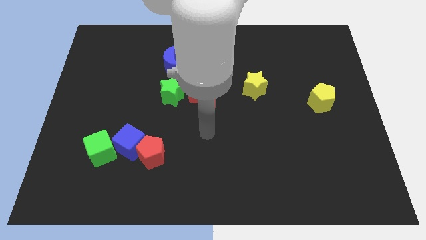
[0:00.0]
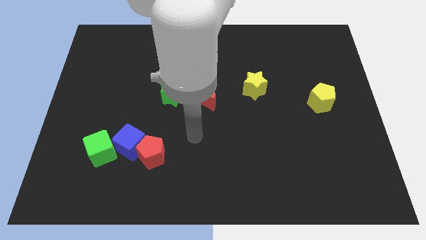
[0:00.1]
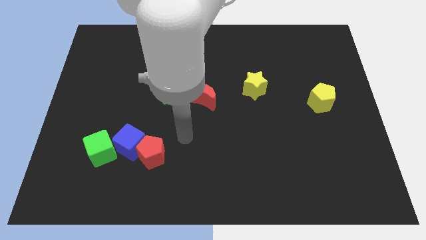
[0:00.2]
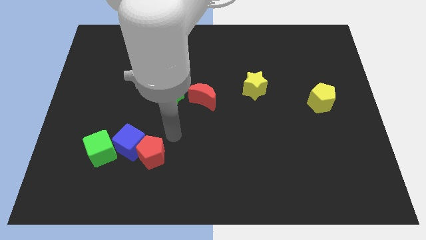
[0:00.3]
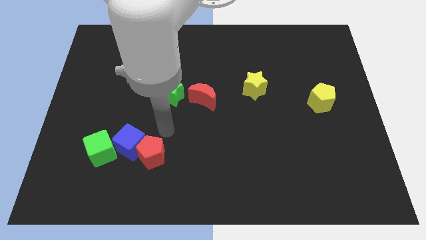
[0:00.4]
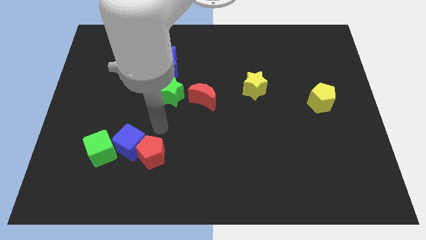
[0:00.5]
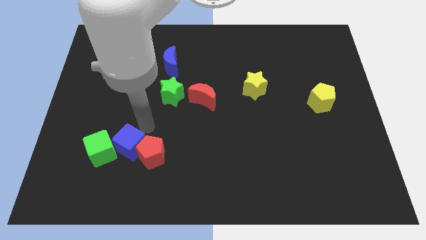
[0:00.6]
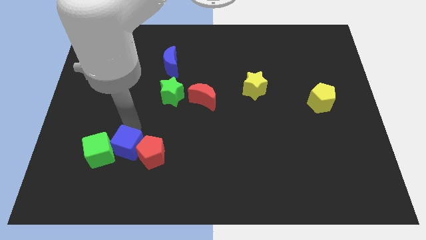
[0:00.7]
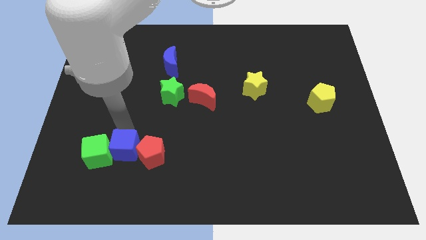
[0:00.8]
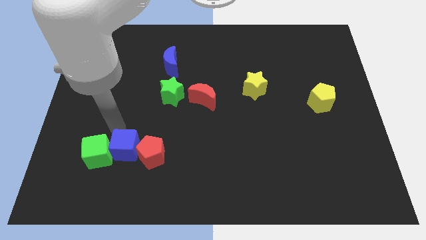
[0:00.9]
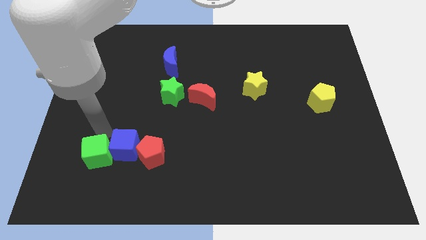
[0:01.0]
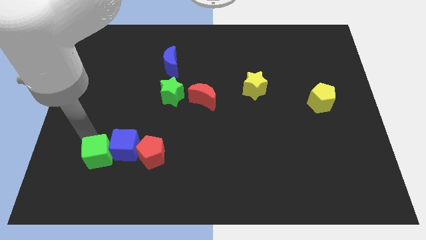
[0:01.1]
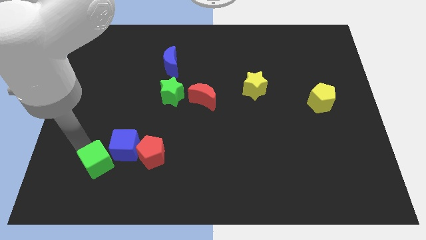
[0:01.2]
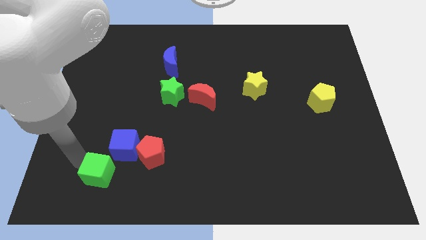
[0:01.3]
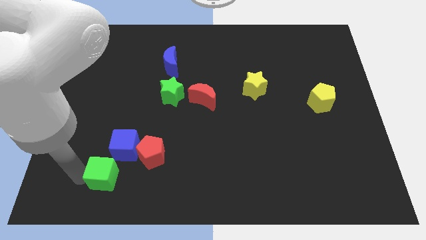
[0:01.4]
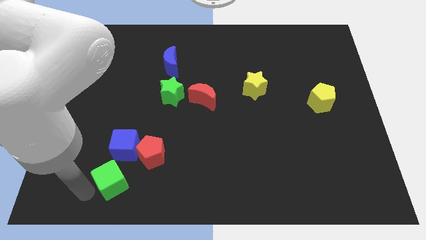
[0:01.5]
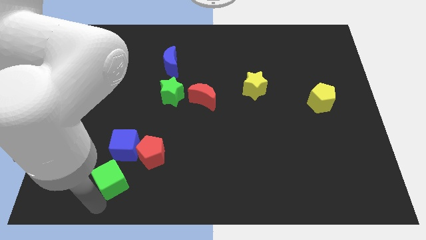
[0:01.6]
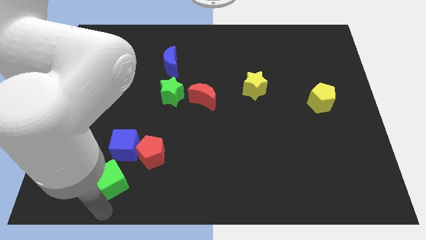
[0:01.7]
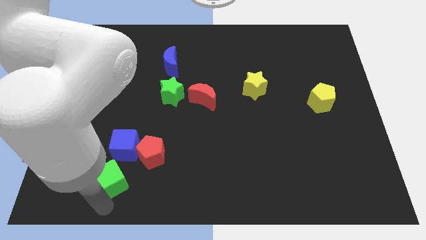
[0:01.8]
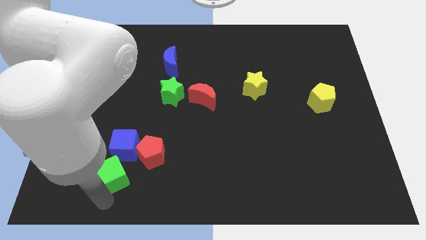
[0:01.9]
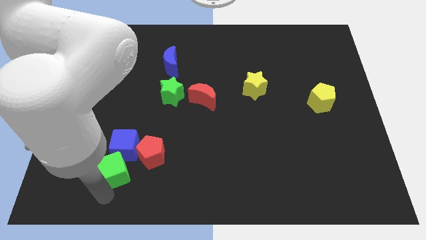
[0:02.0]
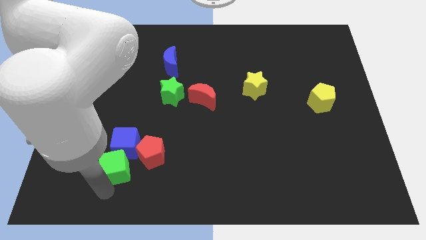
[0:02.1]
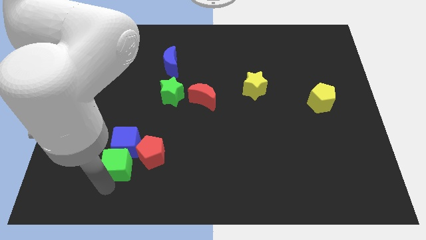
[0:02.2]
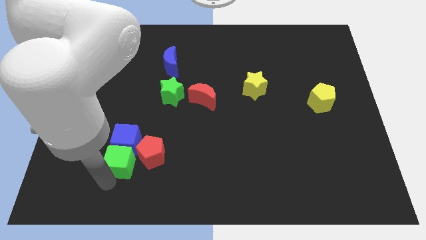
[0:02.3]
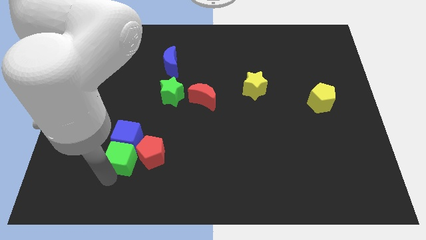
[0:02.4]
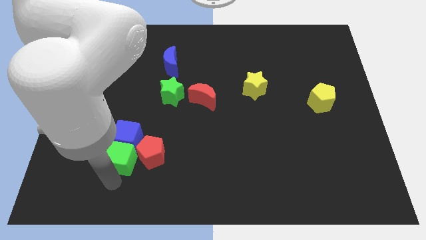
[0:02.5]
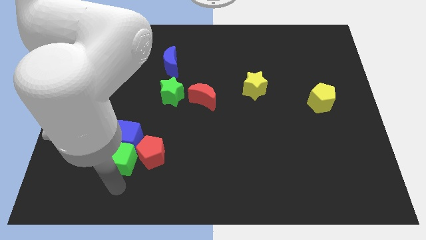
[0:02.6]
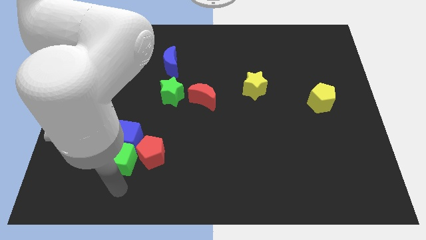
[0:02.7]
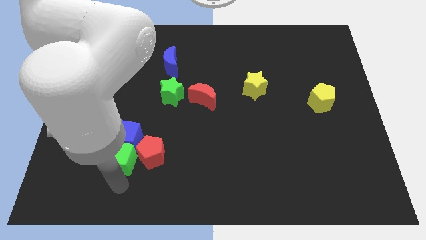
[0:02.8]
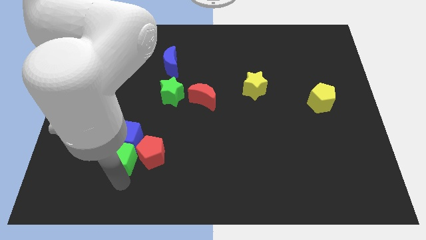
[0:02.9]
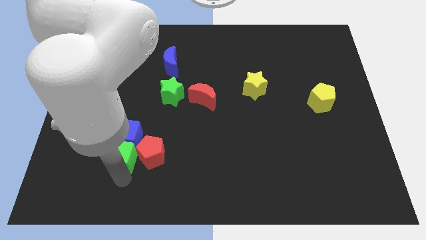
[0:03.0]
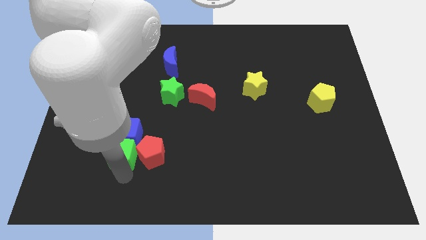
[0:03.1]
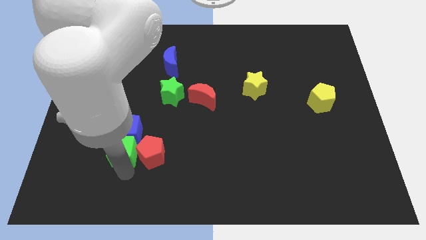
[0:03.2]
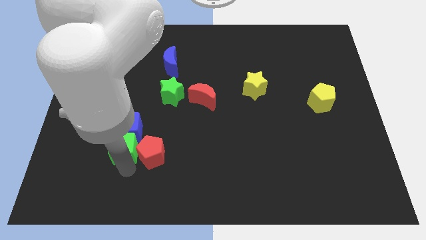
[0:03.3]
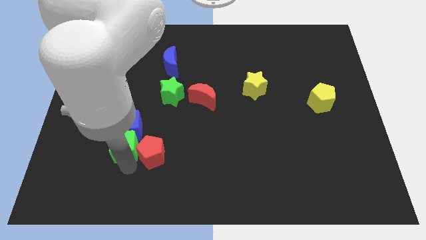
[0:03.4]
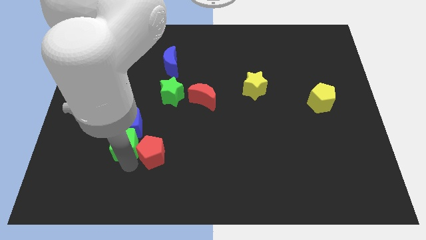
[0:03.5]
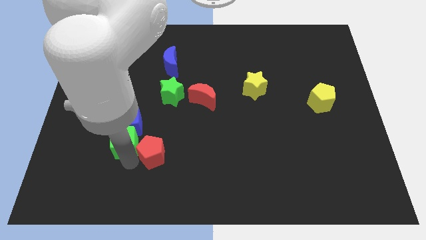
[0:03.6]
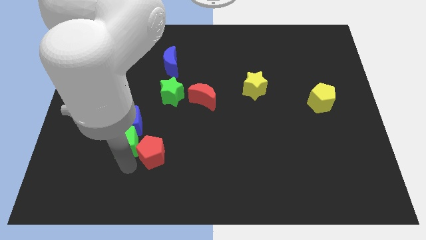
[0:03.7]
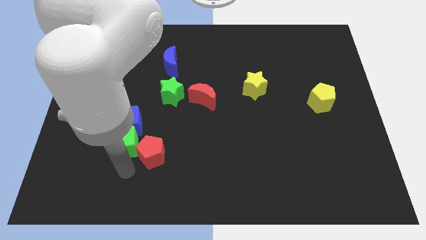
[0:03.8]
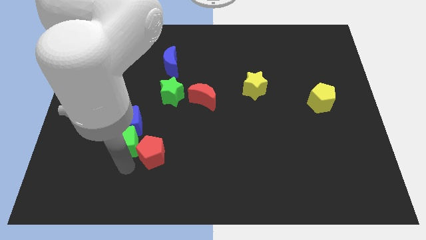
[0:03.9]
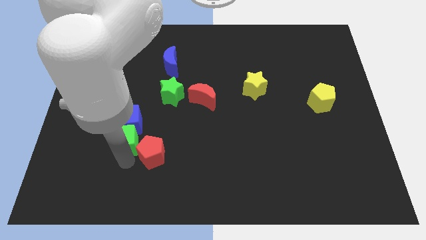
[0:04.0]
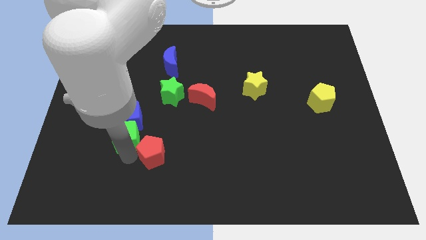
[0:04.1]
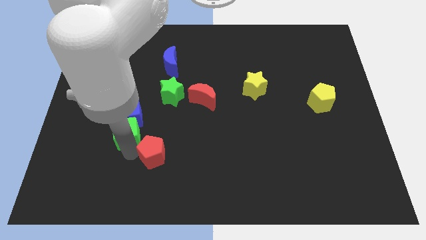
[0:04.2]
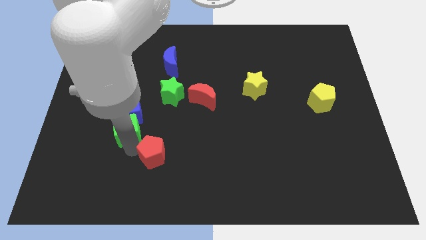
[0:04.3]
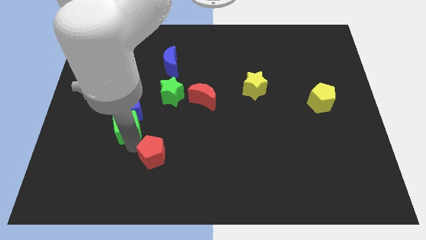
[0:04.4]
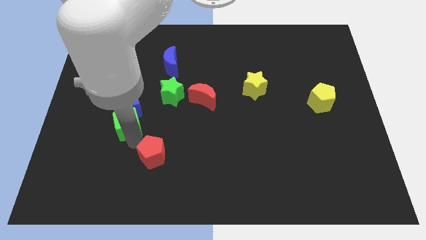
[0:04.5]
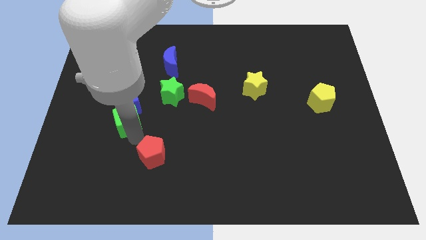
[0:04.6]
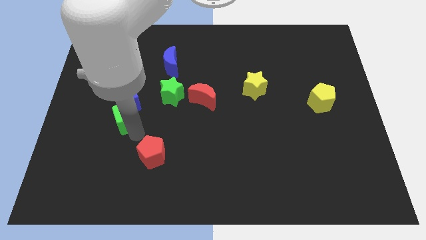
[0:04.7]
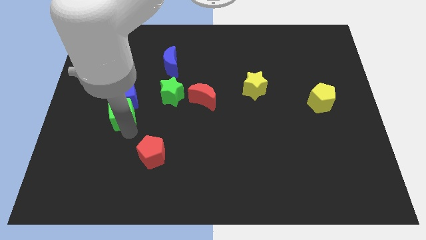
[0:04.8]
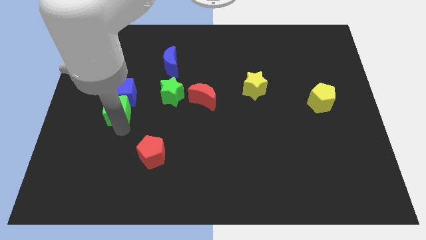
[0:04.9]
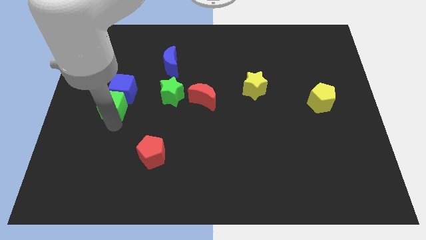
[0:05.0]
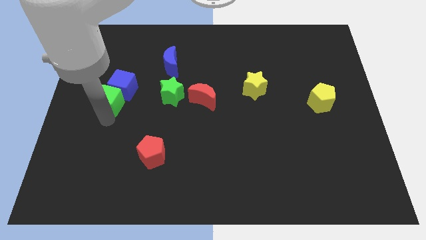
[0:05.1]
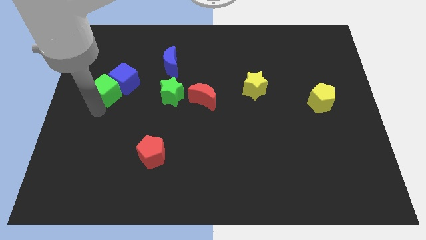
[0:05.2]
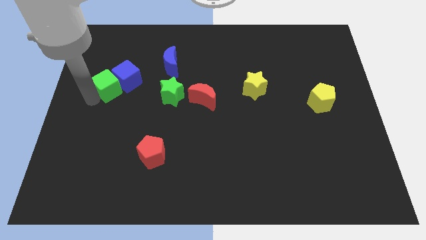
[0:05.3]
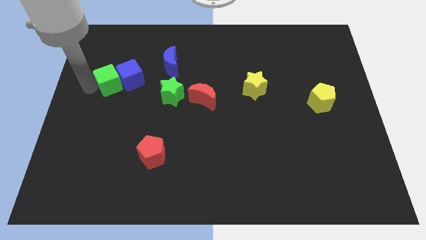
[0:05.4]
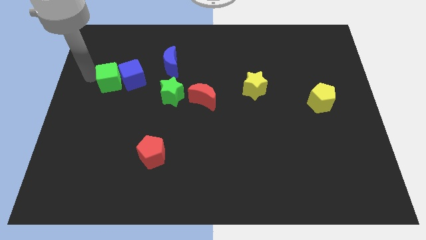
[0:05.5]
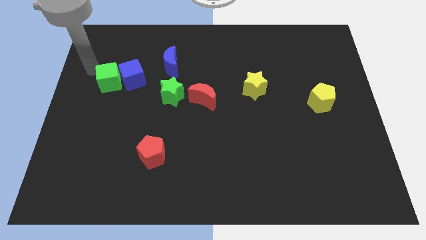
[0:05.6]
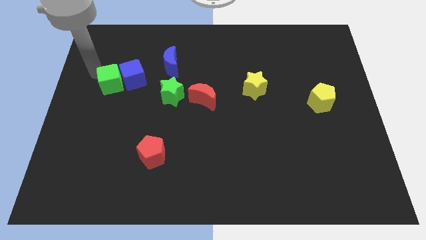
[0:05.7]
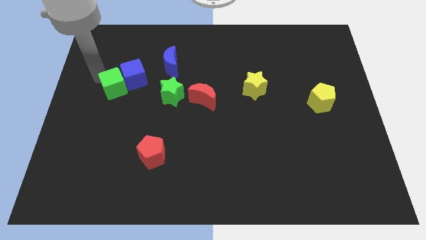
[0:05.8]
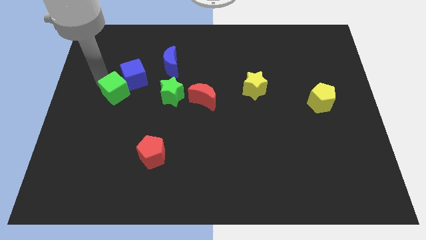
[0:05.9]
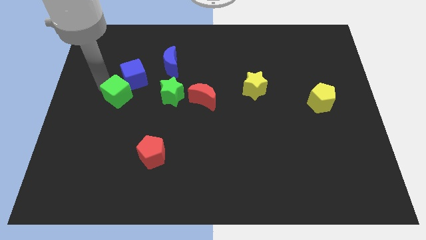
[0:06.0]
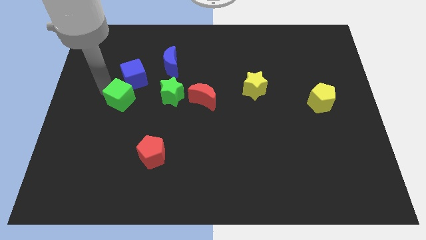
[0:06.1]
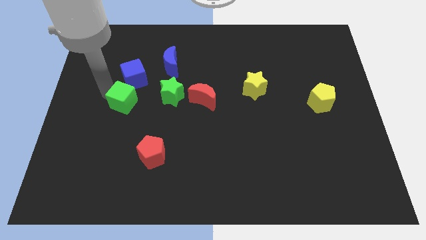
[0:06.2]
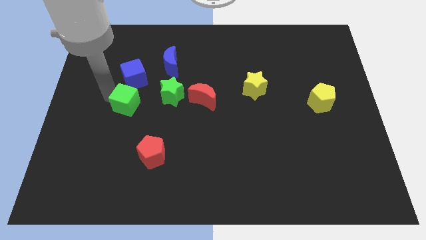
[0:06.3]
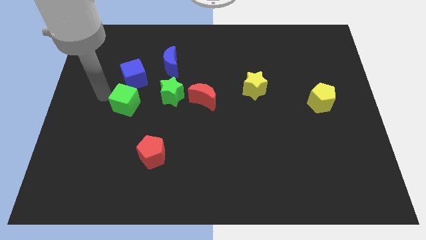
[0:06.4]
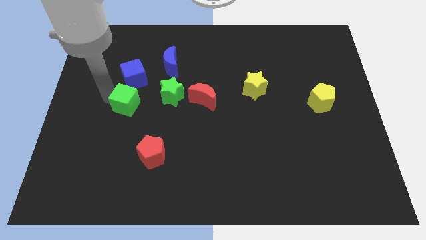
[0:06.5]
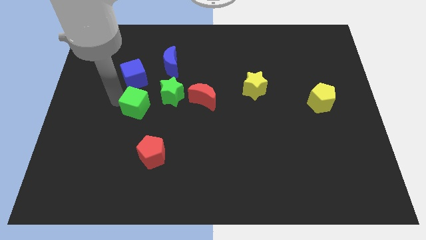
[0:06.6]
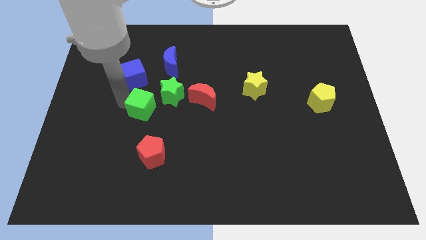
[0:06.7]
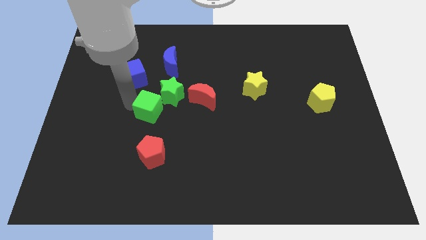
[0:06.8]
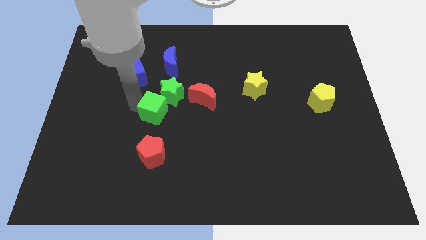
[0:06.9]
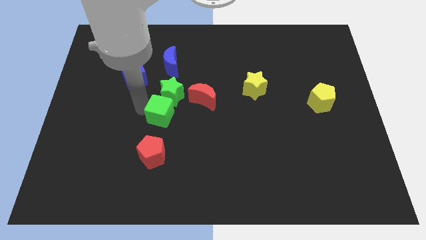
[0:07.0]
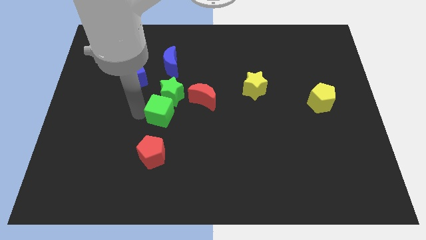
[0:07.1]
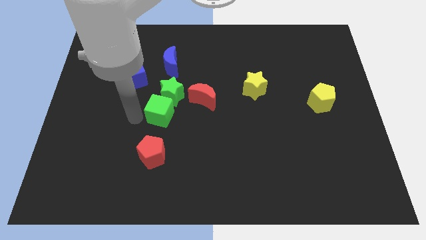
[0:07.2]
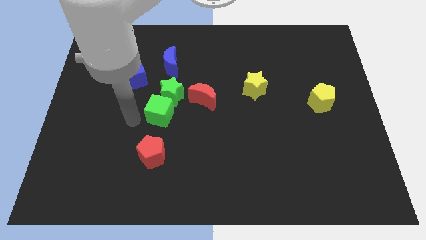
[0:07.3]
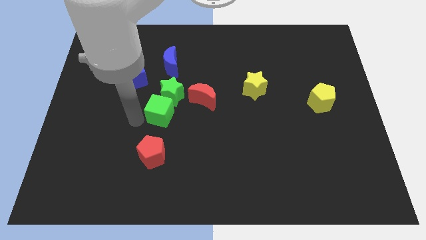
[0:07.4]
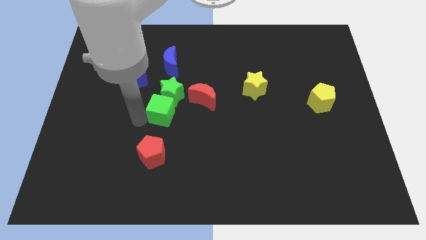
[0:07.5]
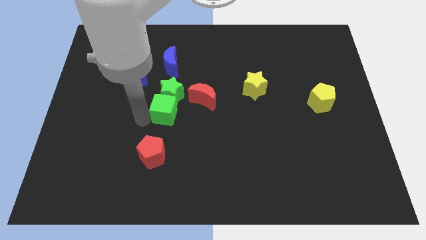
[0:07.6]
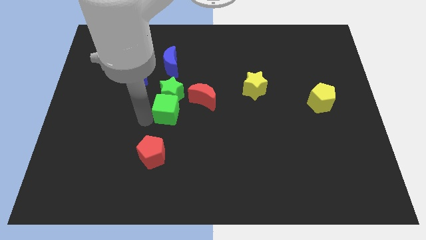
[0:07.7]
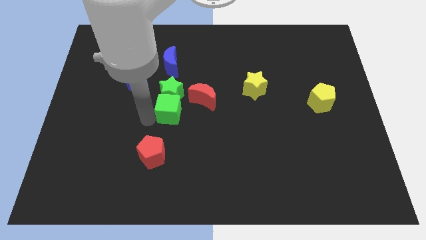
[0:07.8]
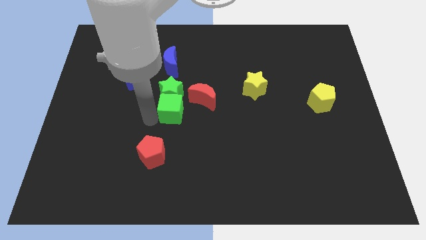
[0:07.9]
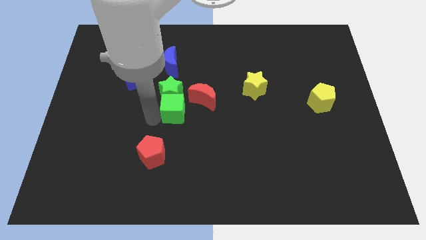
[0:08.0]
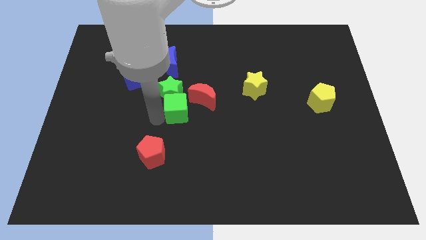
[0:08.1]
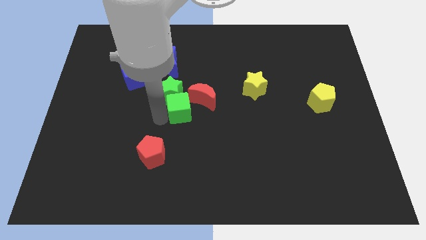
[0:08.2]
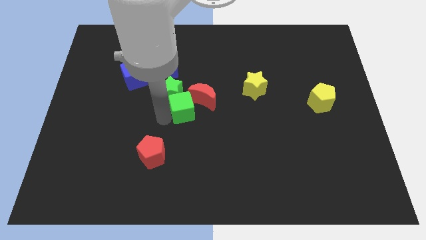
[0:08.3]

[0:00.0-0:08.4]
put the green cube to the red moon
